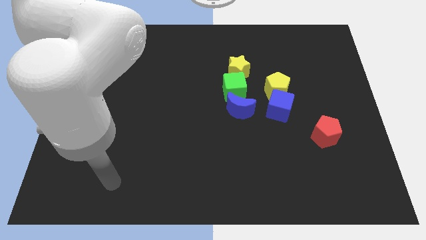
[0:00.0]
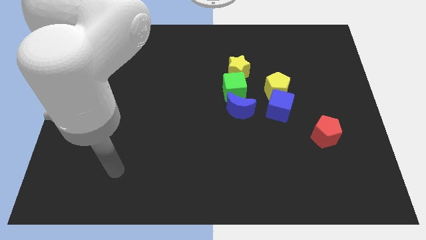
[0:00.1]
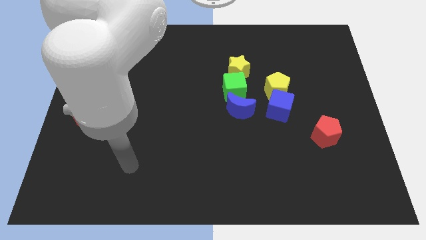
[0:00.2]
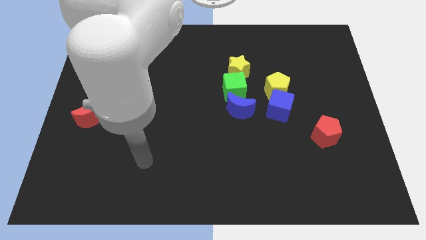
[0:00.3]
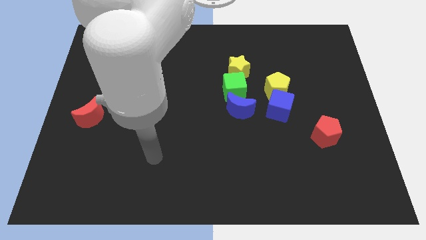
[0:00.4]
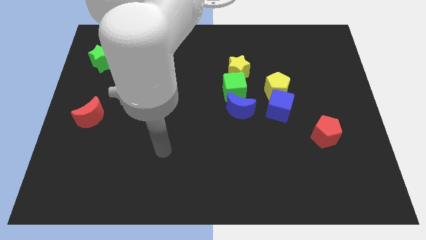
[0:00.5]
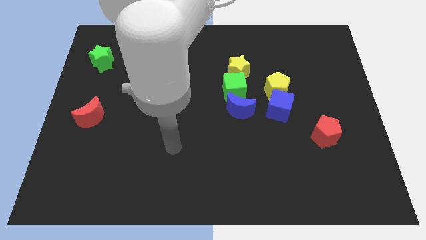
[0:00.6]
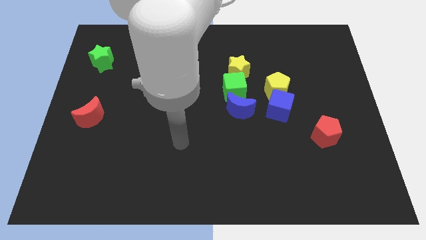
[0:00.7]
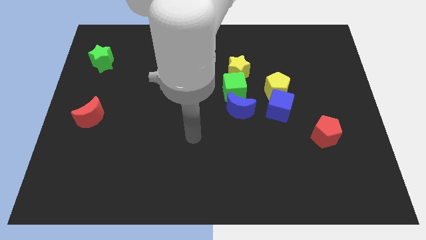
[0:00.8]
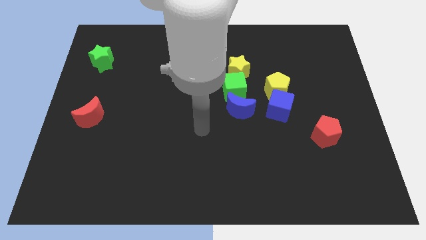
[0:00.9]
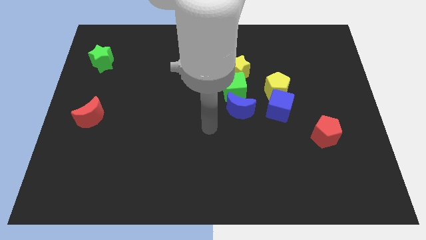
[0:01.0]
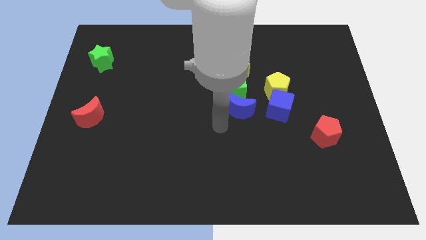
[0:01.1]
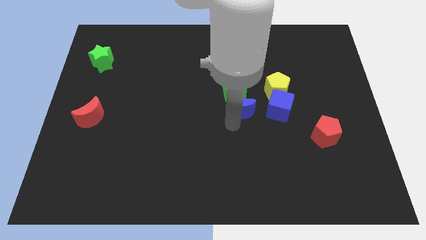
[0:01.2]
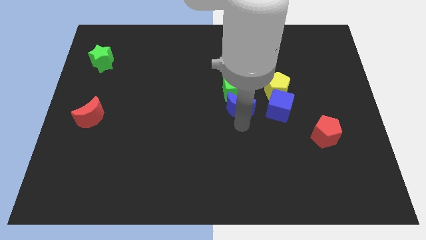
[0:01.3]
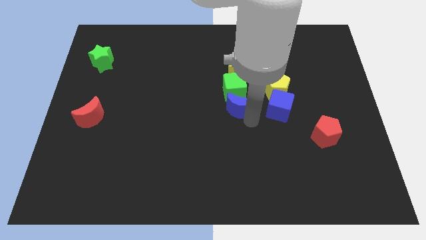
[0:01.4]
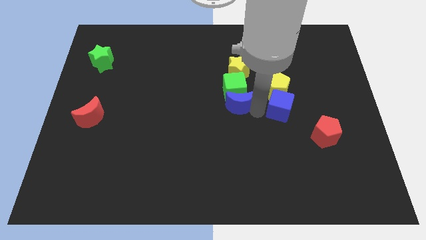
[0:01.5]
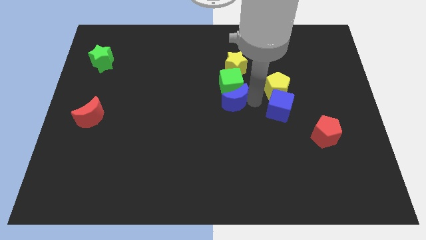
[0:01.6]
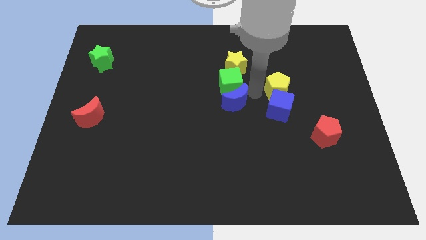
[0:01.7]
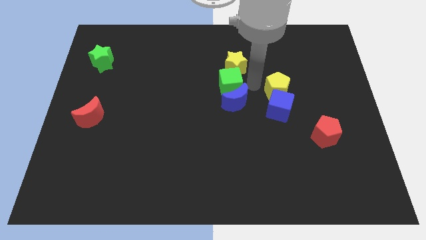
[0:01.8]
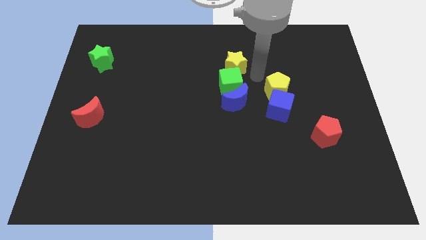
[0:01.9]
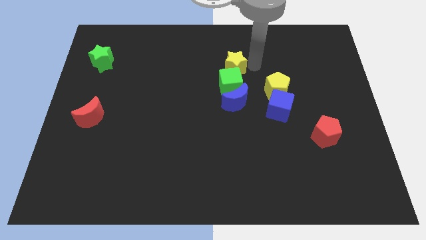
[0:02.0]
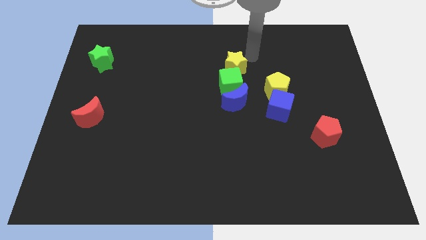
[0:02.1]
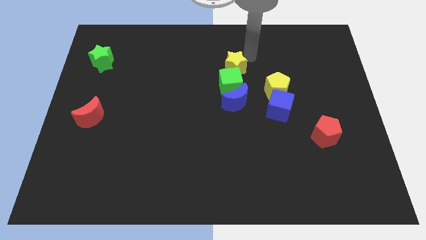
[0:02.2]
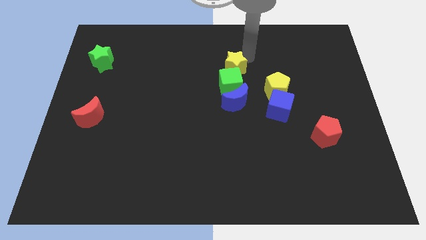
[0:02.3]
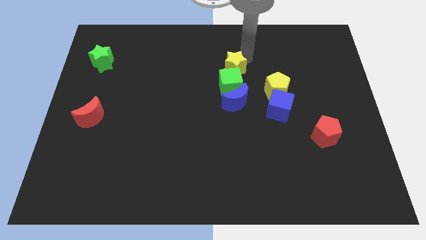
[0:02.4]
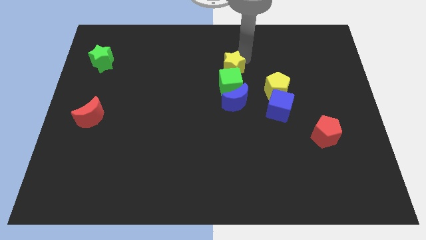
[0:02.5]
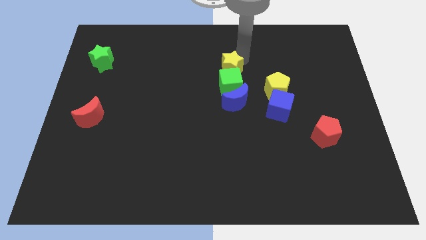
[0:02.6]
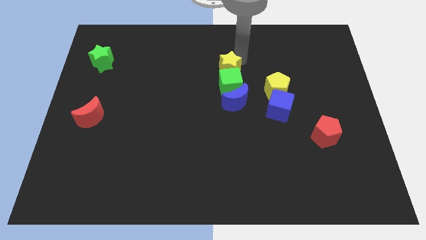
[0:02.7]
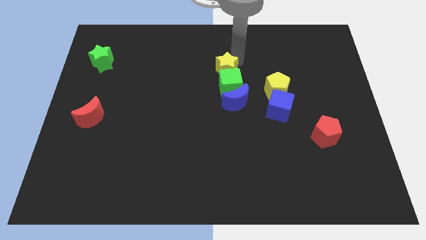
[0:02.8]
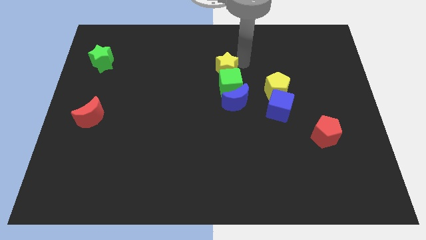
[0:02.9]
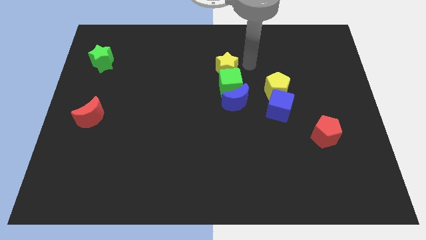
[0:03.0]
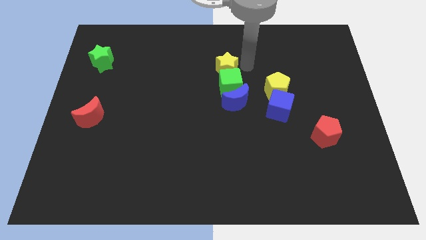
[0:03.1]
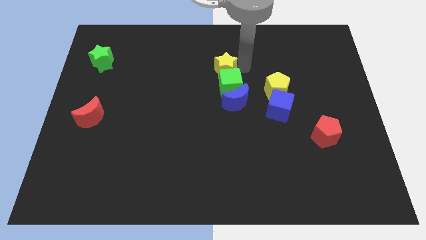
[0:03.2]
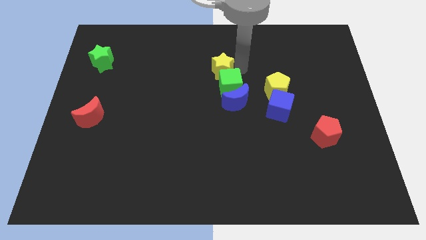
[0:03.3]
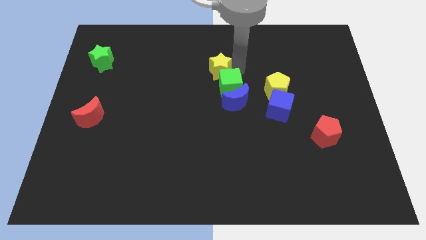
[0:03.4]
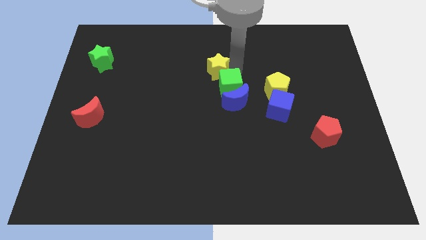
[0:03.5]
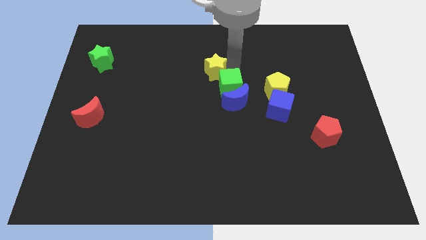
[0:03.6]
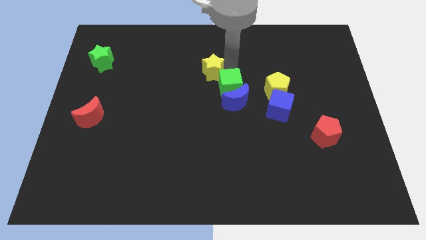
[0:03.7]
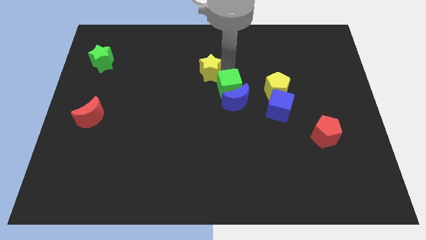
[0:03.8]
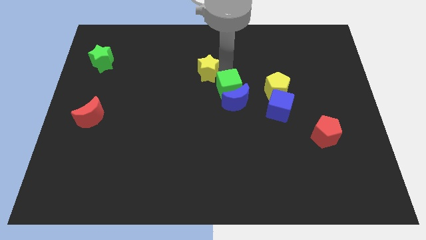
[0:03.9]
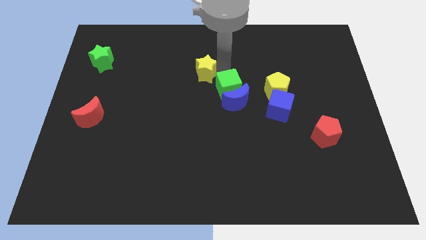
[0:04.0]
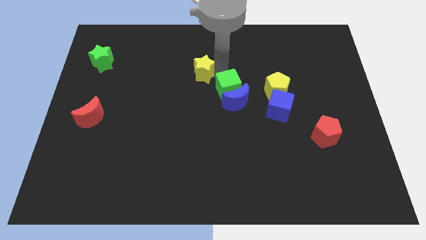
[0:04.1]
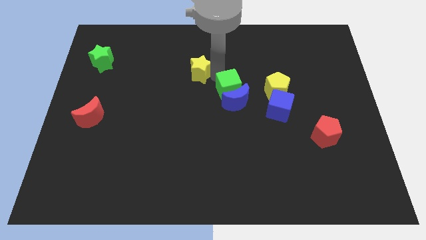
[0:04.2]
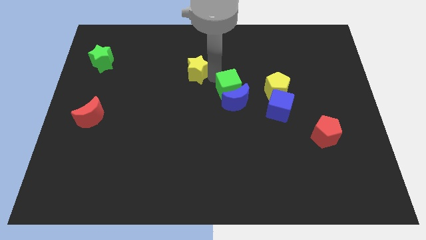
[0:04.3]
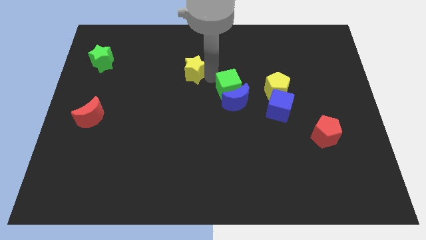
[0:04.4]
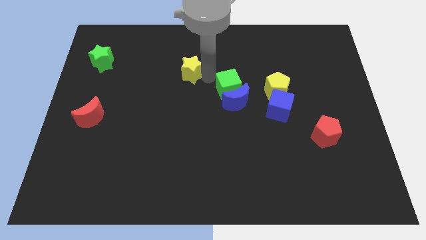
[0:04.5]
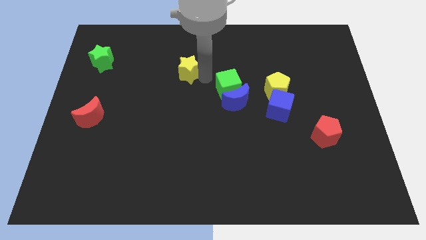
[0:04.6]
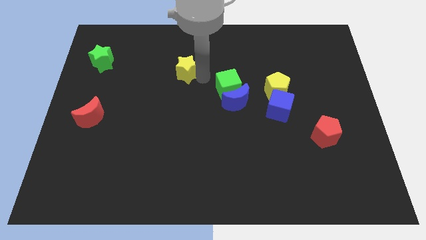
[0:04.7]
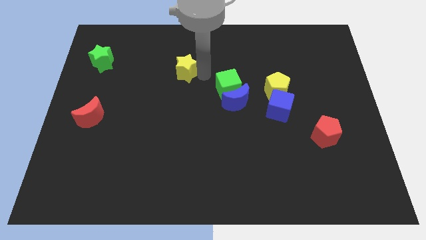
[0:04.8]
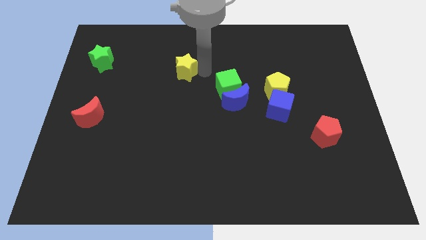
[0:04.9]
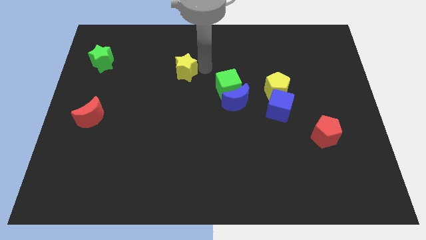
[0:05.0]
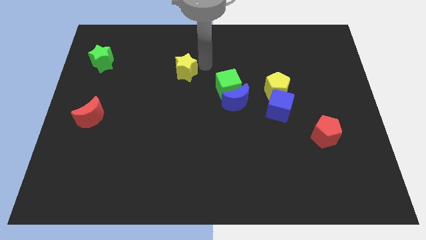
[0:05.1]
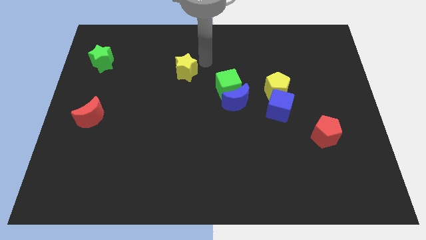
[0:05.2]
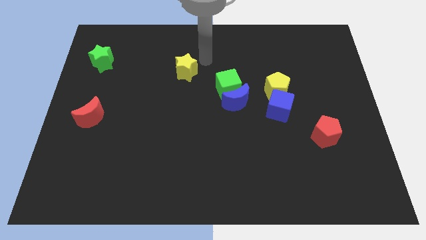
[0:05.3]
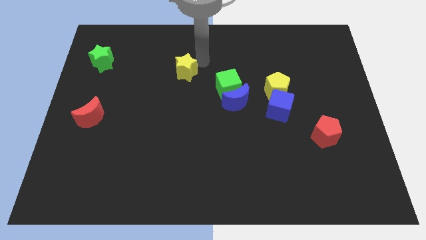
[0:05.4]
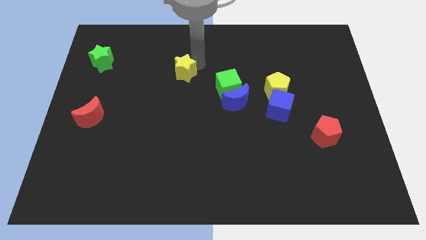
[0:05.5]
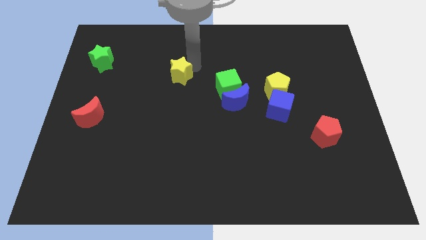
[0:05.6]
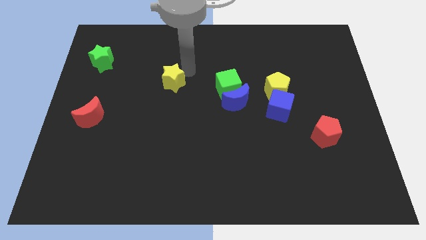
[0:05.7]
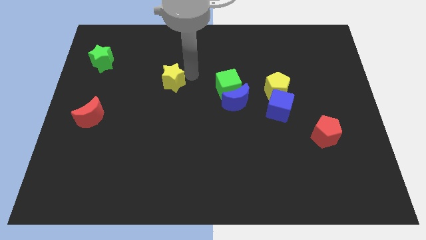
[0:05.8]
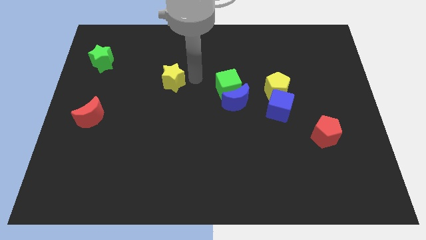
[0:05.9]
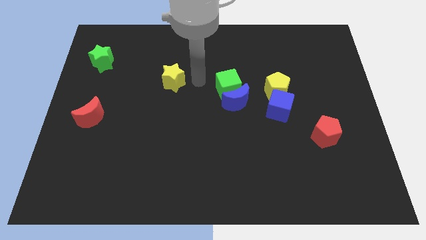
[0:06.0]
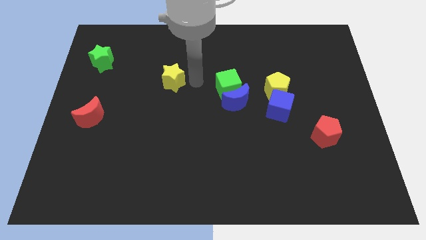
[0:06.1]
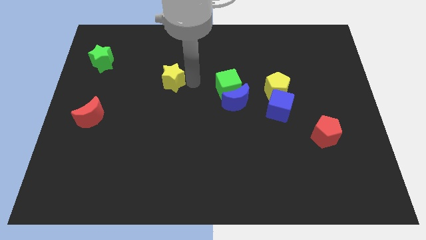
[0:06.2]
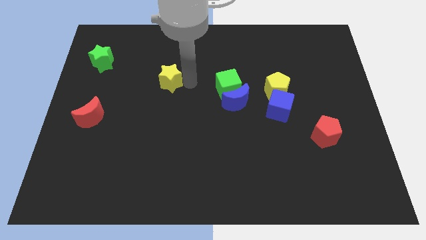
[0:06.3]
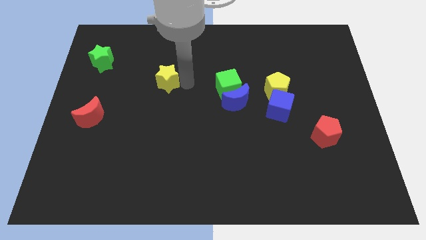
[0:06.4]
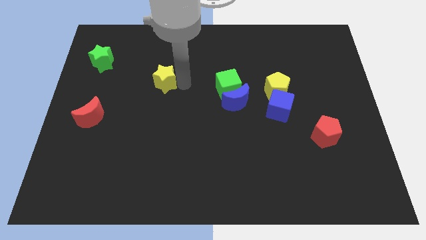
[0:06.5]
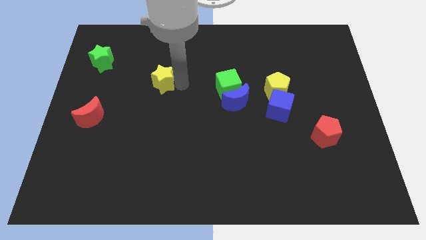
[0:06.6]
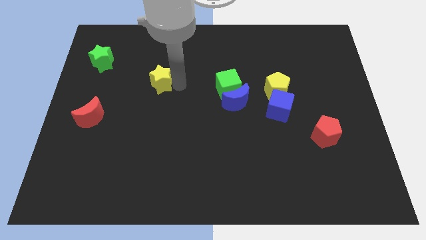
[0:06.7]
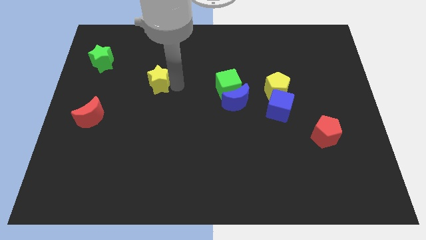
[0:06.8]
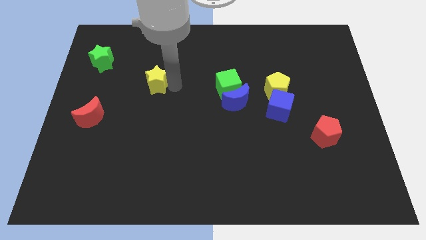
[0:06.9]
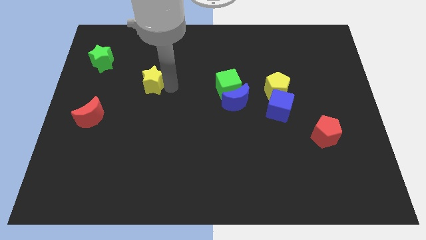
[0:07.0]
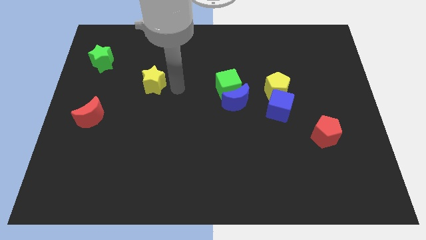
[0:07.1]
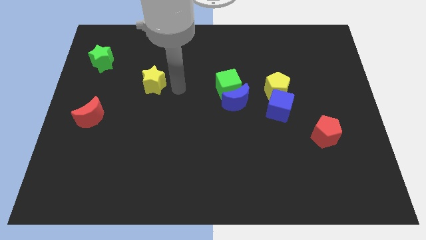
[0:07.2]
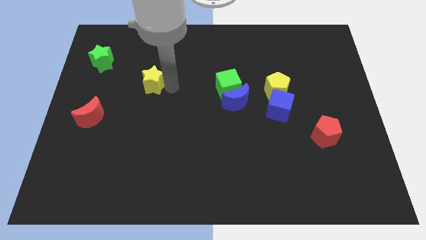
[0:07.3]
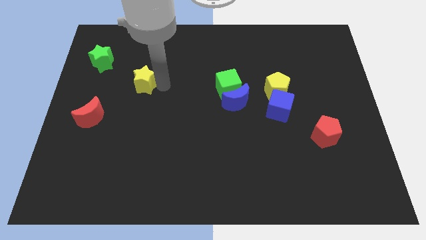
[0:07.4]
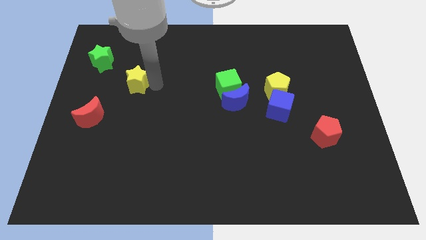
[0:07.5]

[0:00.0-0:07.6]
push the yellow star to the bottom right of the green star
